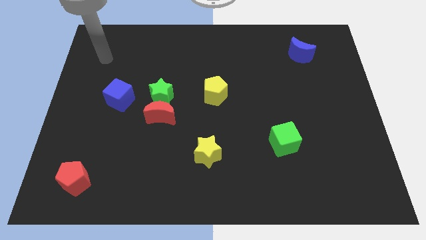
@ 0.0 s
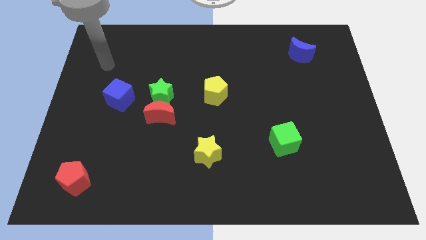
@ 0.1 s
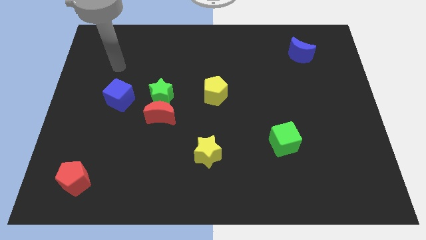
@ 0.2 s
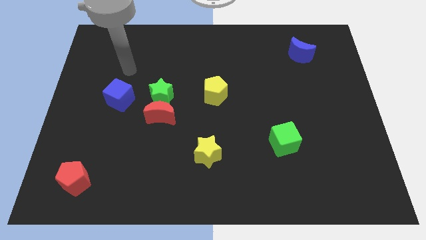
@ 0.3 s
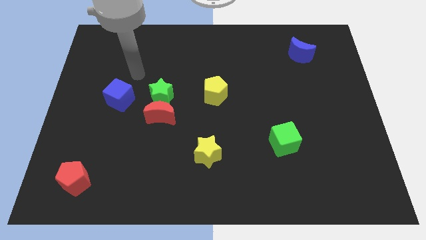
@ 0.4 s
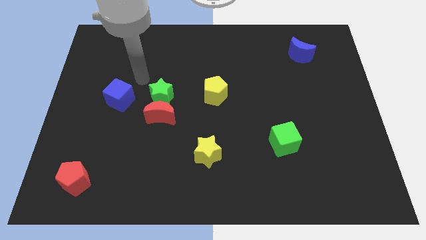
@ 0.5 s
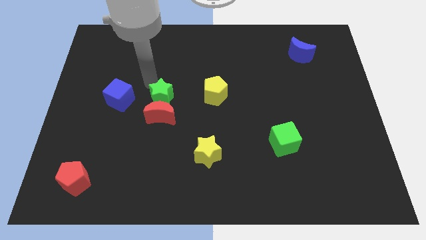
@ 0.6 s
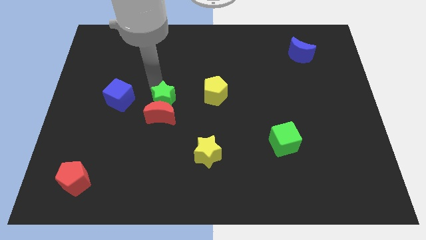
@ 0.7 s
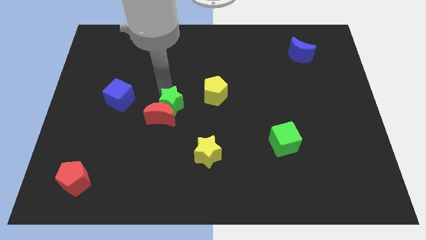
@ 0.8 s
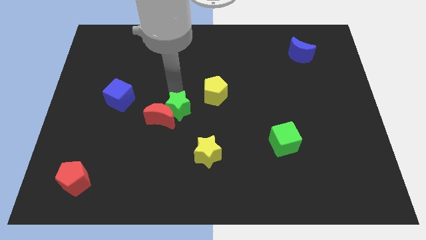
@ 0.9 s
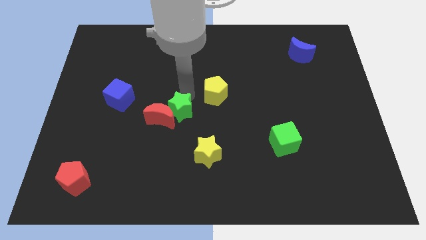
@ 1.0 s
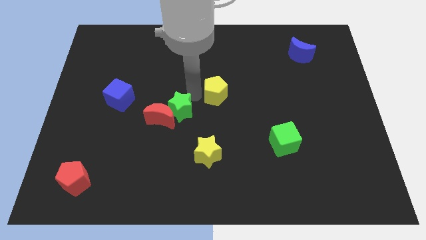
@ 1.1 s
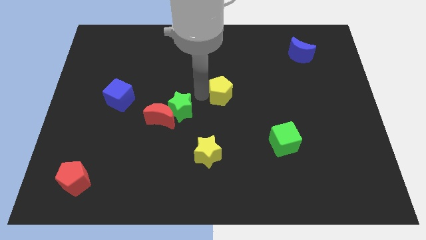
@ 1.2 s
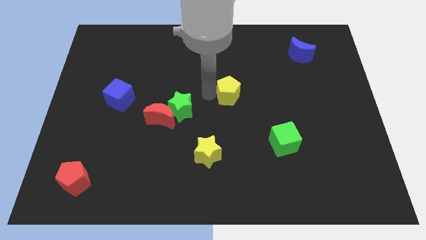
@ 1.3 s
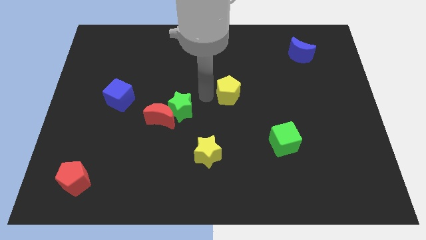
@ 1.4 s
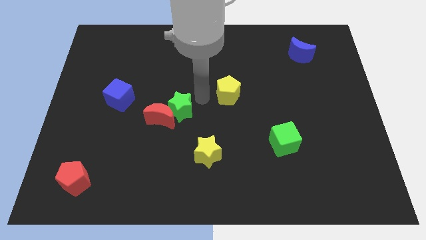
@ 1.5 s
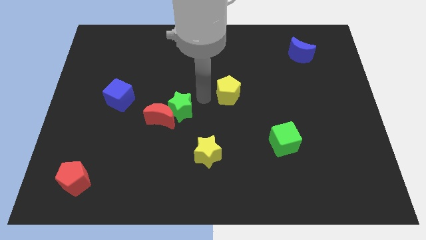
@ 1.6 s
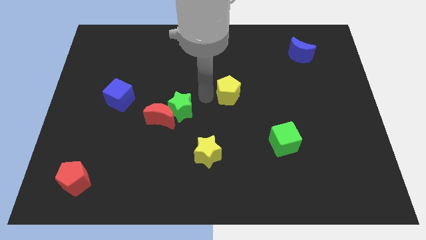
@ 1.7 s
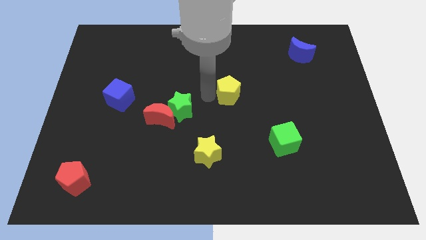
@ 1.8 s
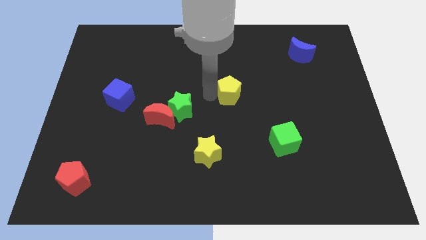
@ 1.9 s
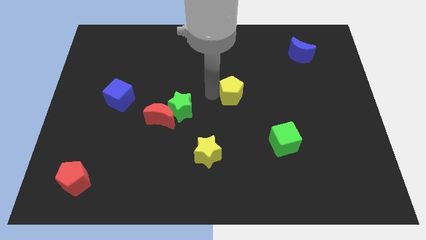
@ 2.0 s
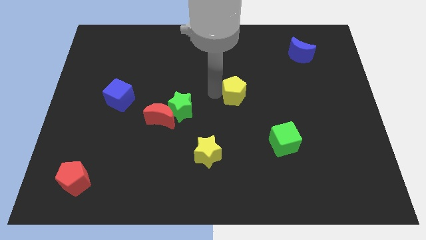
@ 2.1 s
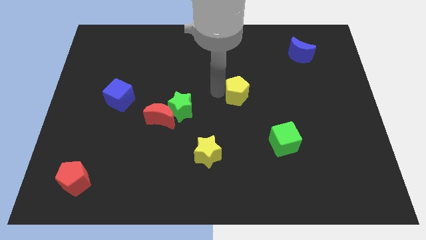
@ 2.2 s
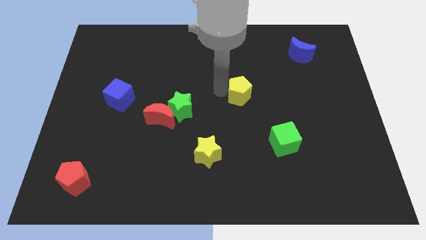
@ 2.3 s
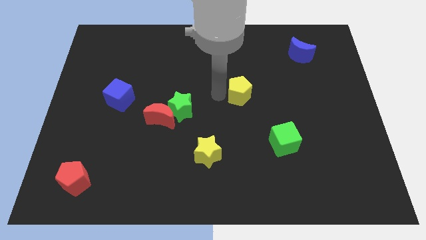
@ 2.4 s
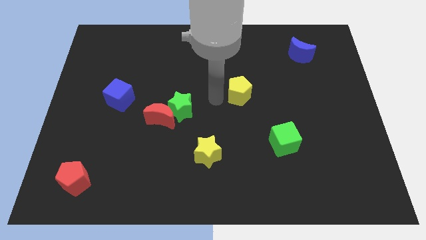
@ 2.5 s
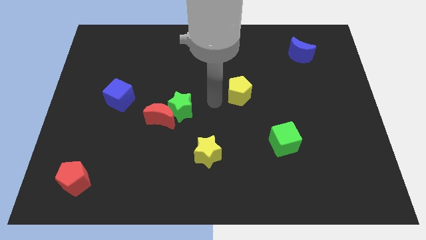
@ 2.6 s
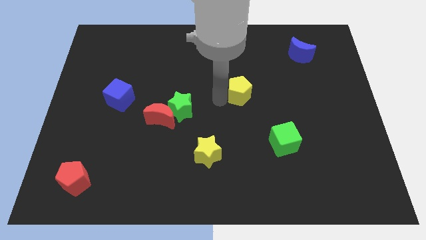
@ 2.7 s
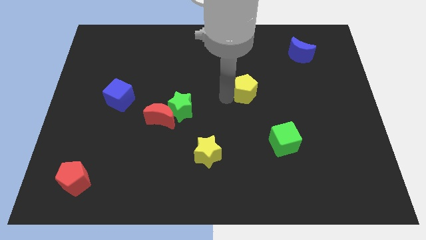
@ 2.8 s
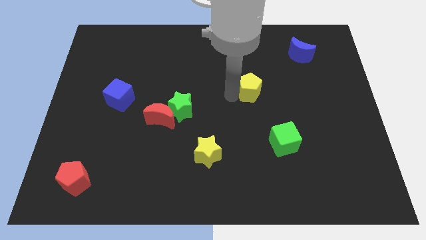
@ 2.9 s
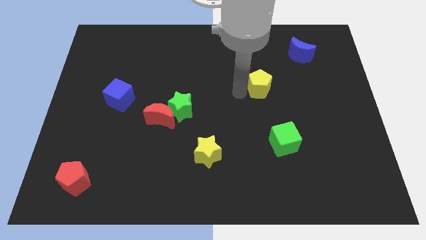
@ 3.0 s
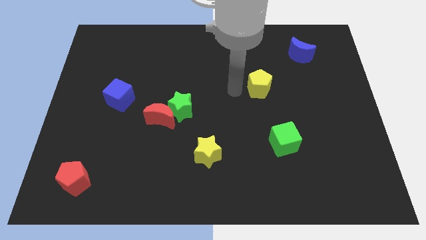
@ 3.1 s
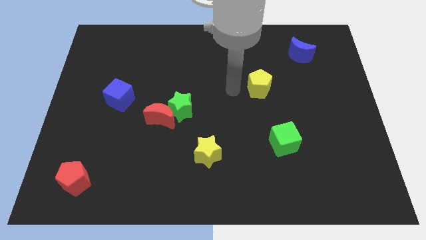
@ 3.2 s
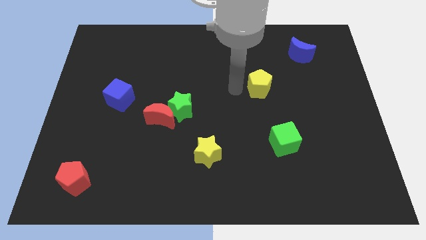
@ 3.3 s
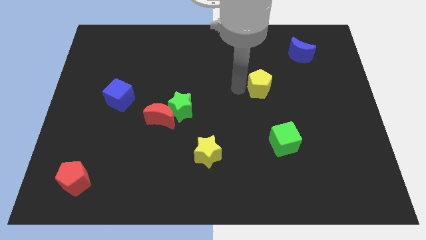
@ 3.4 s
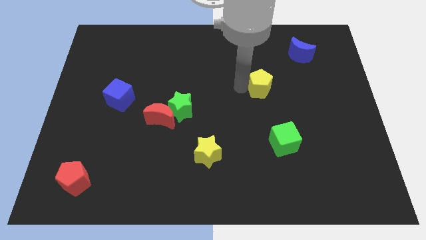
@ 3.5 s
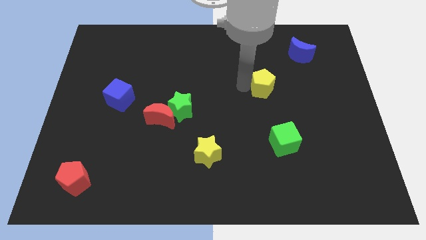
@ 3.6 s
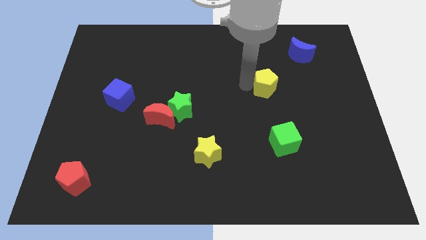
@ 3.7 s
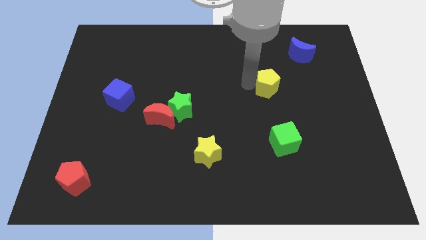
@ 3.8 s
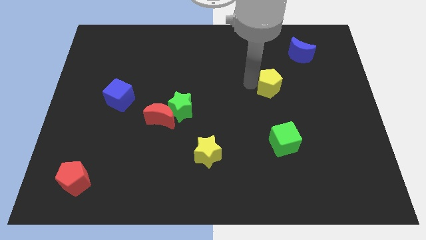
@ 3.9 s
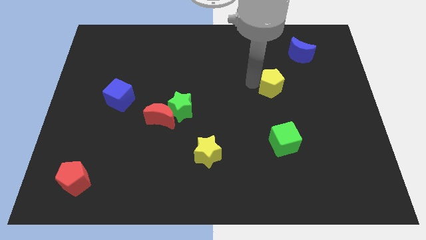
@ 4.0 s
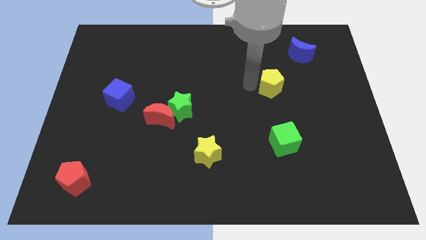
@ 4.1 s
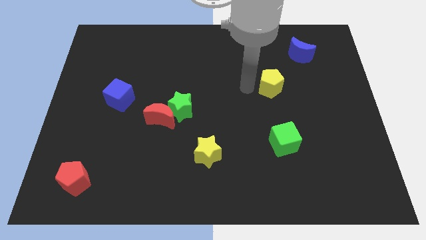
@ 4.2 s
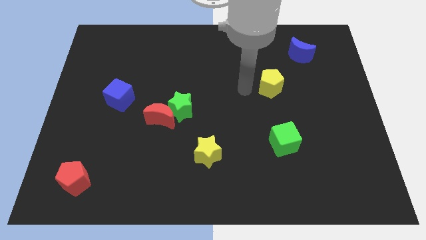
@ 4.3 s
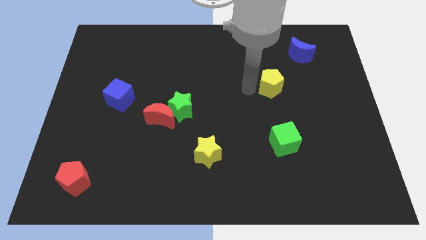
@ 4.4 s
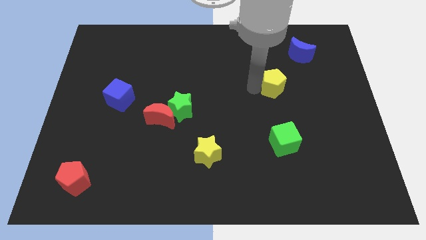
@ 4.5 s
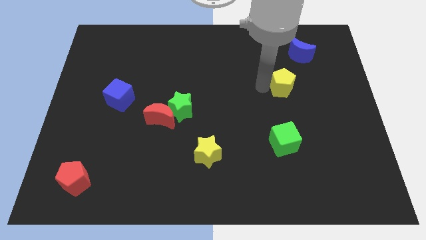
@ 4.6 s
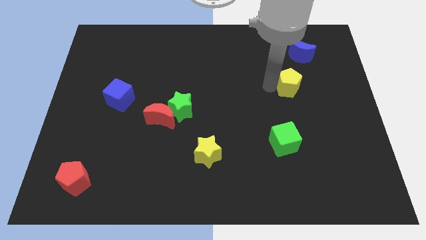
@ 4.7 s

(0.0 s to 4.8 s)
move the yellow pentagon to the bottom side of the blue moon

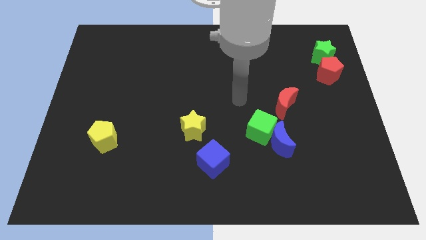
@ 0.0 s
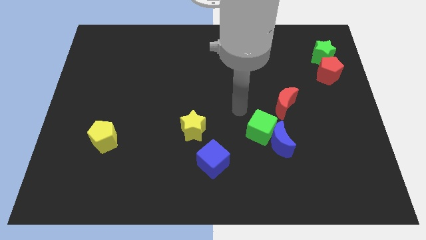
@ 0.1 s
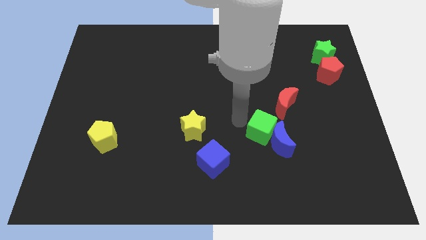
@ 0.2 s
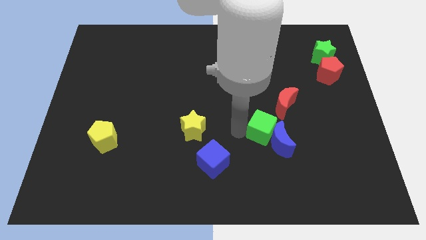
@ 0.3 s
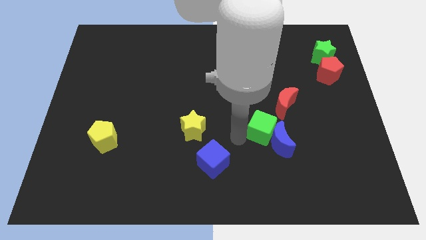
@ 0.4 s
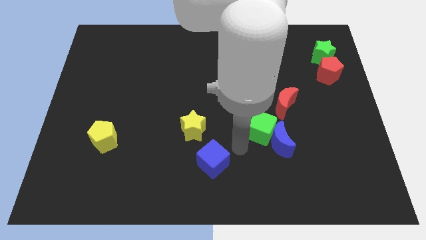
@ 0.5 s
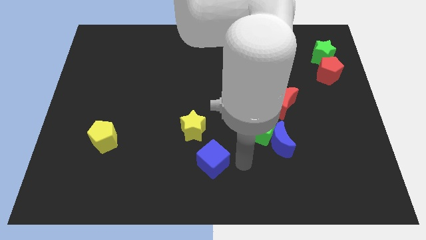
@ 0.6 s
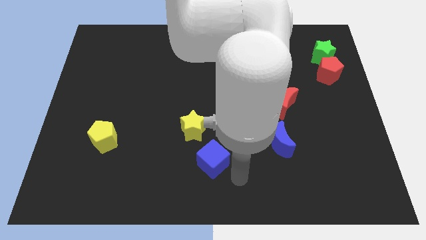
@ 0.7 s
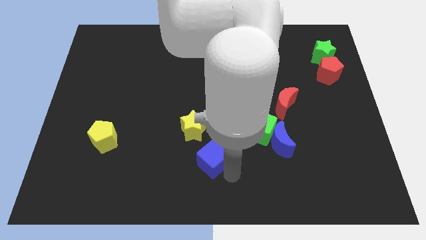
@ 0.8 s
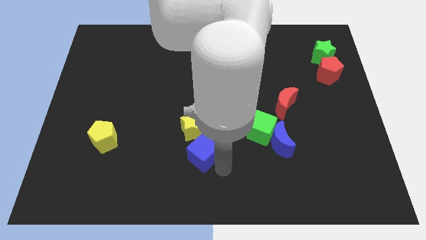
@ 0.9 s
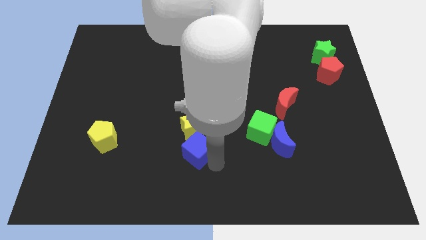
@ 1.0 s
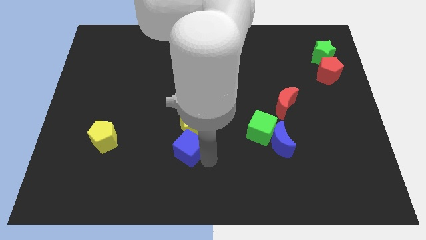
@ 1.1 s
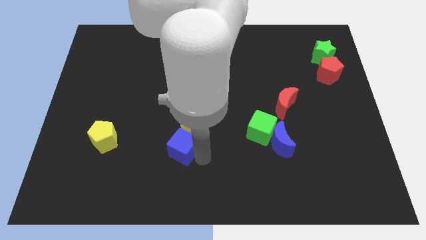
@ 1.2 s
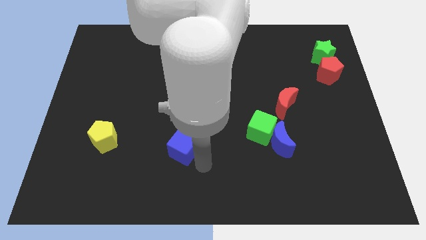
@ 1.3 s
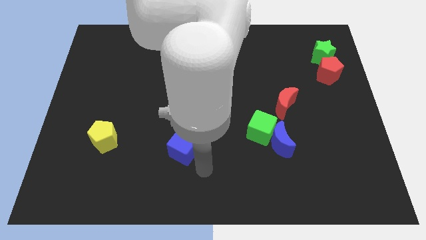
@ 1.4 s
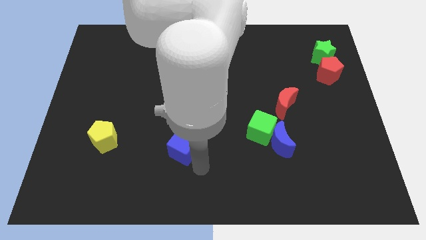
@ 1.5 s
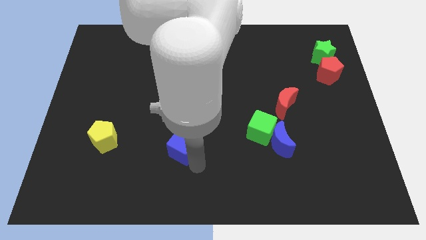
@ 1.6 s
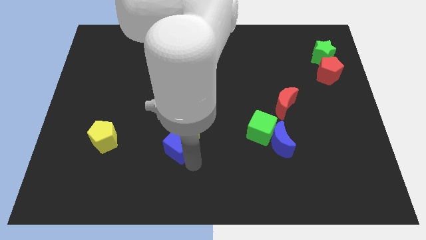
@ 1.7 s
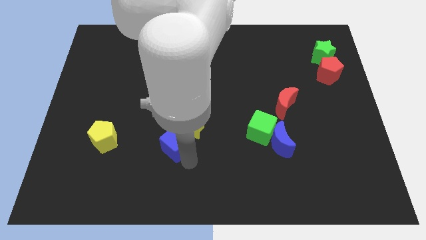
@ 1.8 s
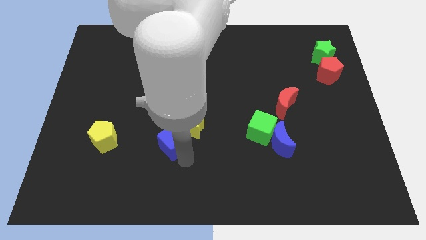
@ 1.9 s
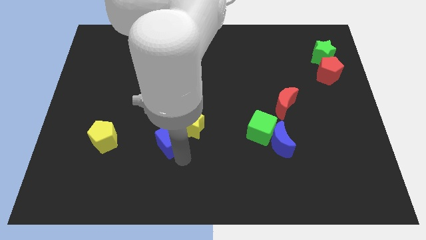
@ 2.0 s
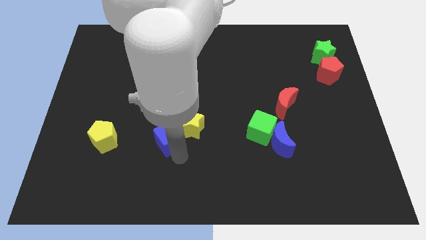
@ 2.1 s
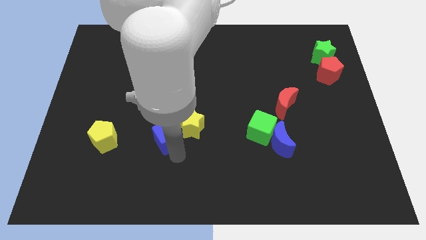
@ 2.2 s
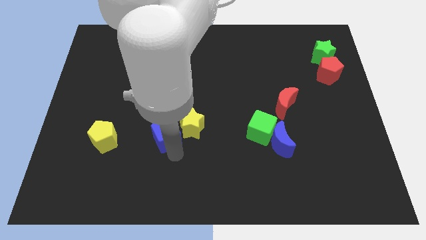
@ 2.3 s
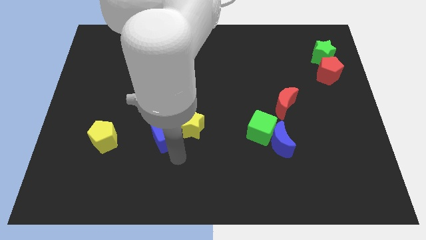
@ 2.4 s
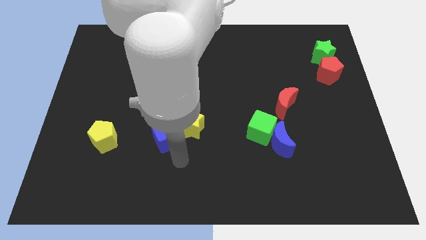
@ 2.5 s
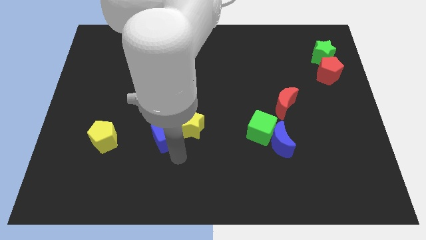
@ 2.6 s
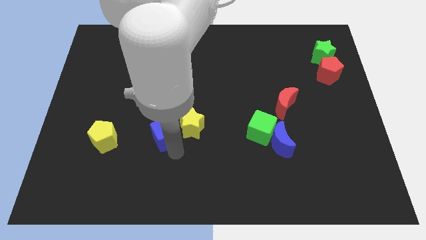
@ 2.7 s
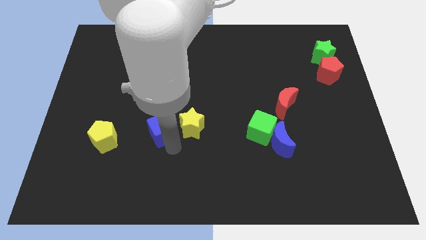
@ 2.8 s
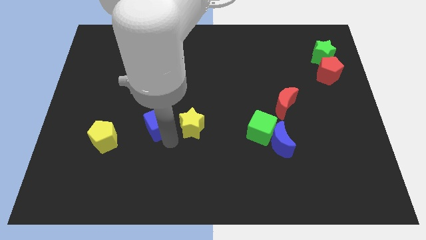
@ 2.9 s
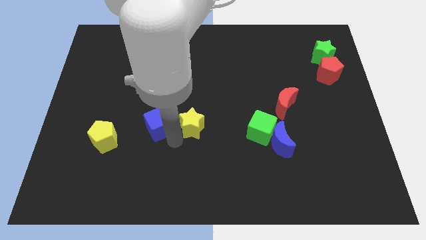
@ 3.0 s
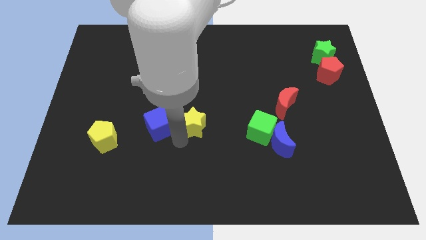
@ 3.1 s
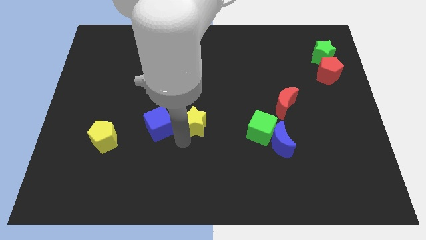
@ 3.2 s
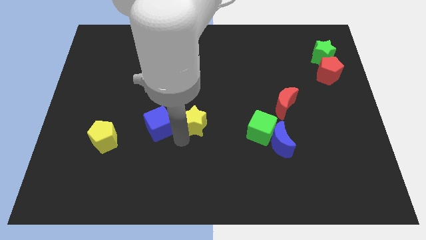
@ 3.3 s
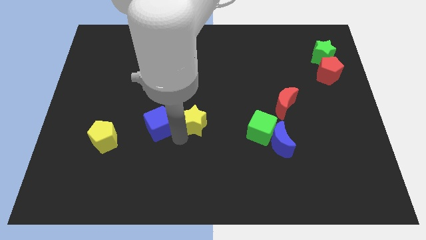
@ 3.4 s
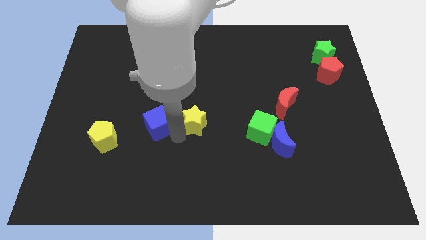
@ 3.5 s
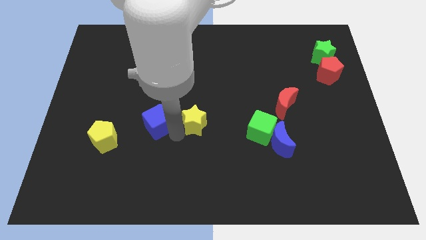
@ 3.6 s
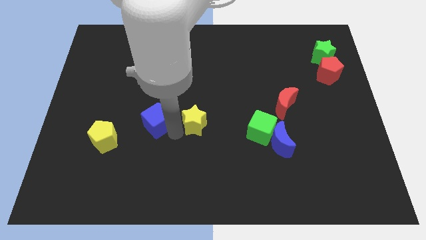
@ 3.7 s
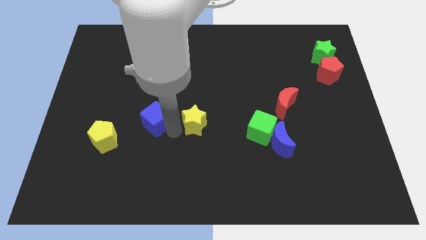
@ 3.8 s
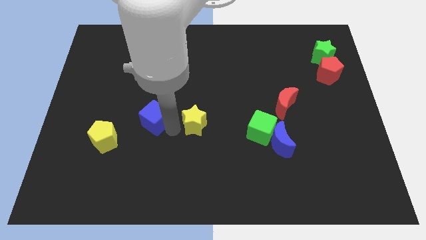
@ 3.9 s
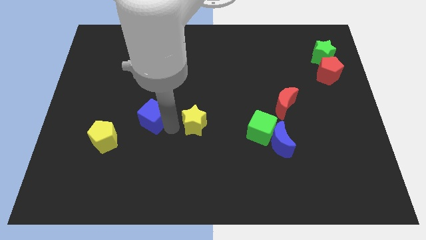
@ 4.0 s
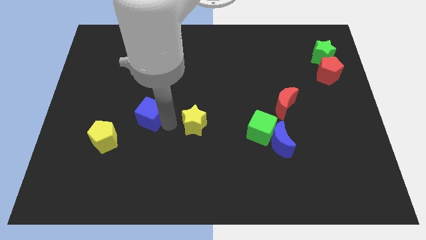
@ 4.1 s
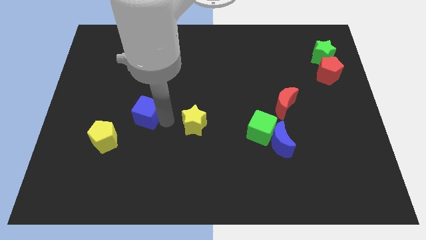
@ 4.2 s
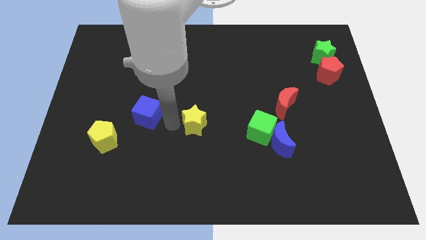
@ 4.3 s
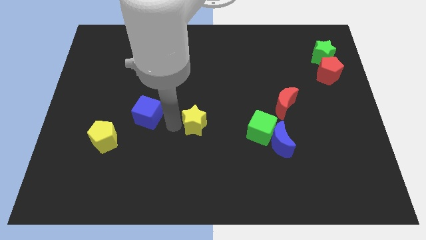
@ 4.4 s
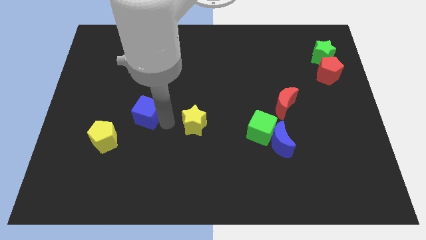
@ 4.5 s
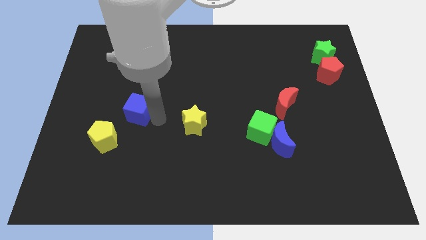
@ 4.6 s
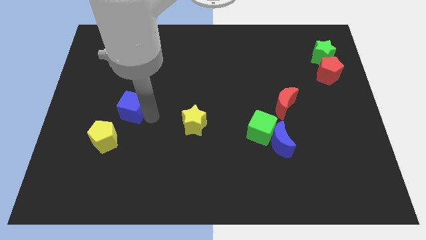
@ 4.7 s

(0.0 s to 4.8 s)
slide the blue cube to the top side of the yellow pentagon
